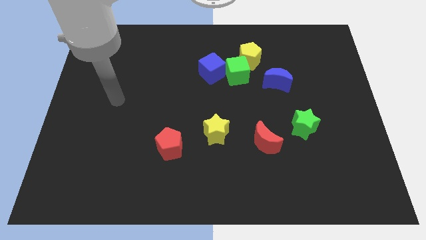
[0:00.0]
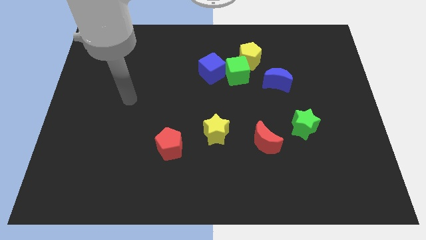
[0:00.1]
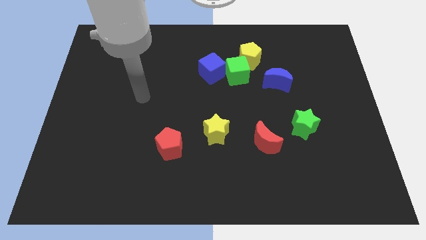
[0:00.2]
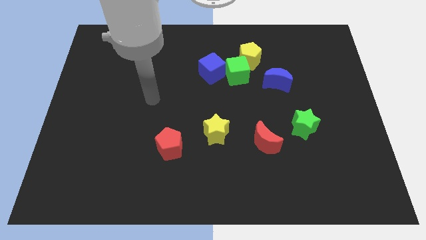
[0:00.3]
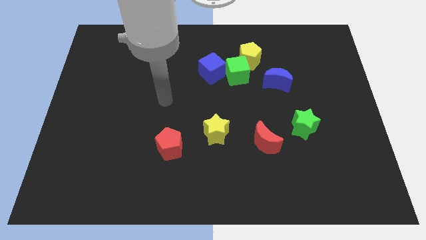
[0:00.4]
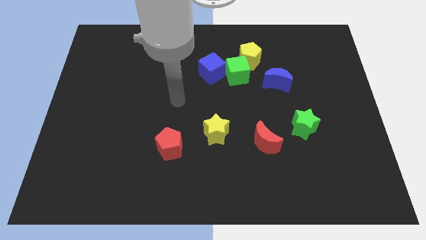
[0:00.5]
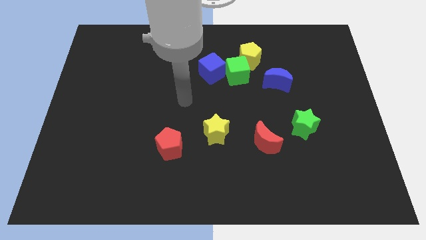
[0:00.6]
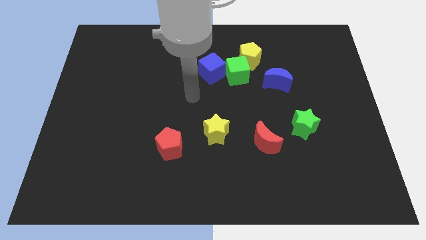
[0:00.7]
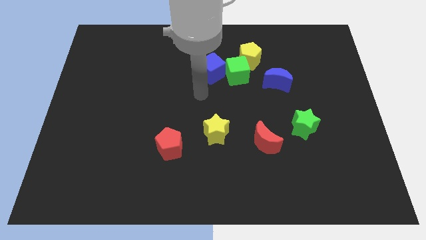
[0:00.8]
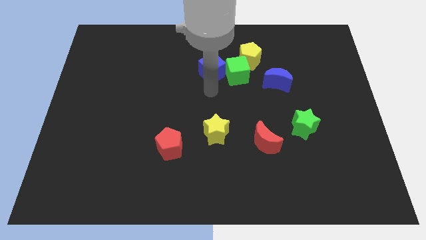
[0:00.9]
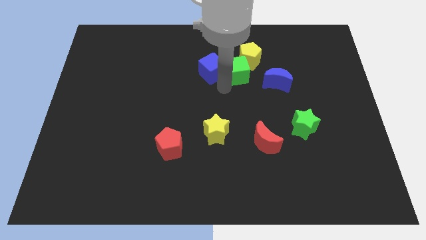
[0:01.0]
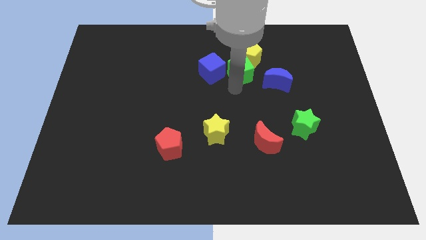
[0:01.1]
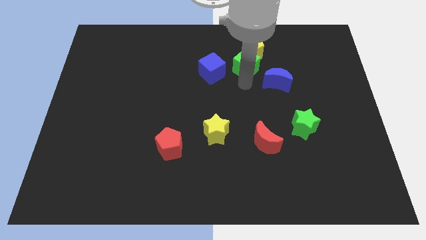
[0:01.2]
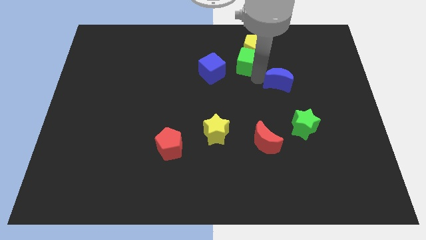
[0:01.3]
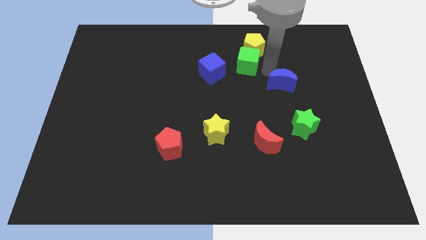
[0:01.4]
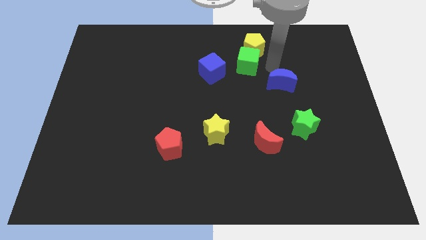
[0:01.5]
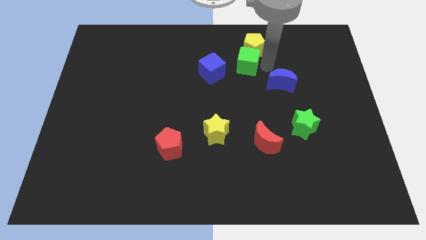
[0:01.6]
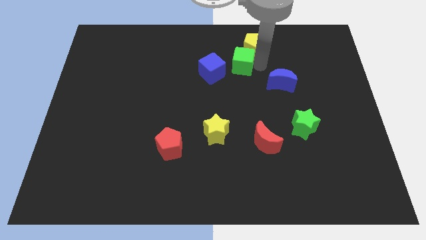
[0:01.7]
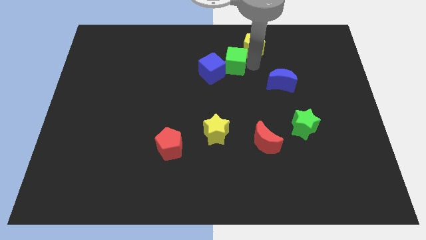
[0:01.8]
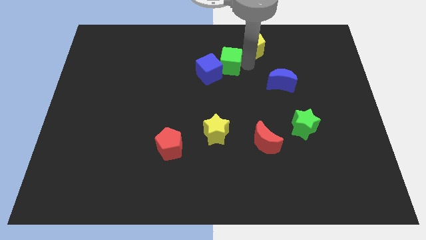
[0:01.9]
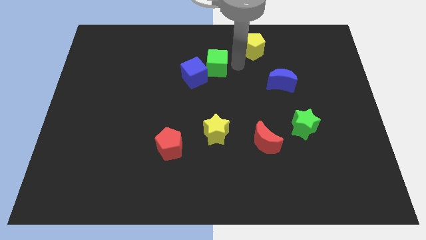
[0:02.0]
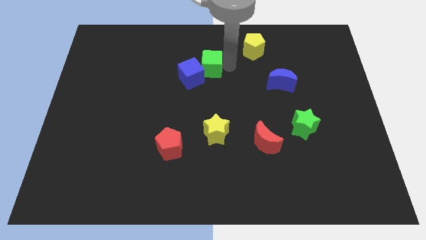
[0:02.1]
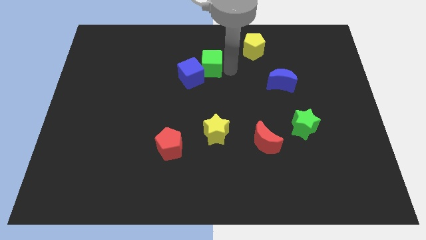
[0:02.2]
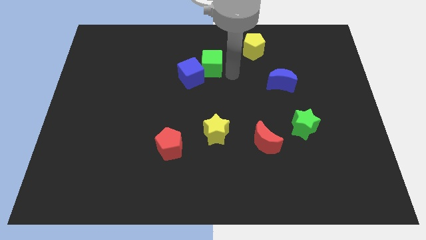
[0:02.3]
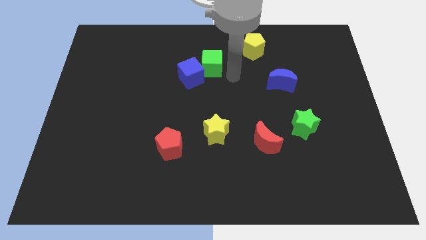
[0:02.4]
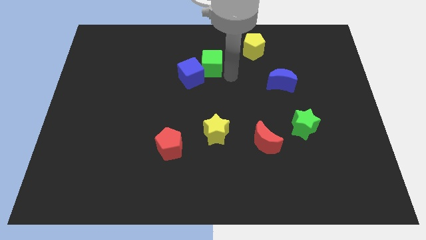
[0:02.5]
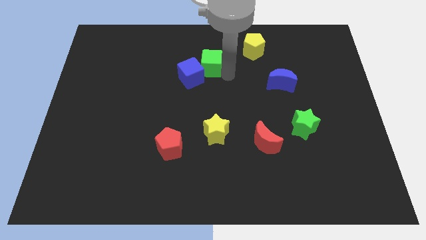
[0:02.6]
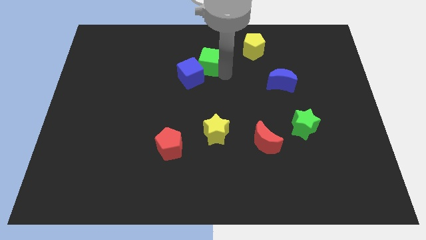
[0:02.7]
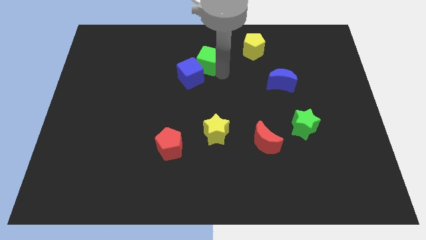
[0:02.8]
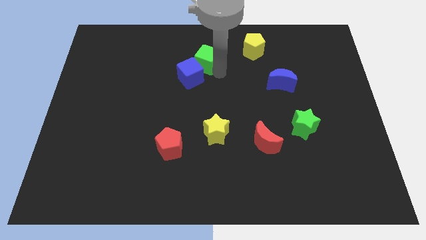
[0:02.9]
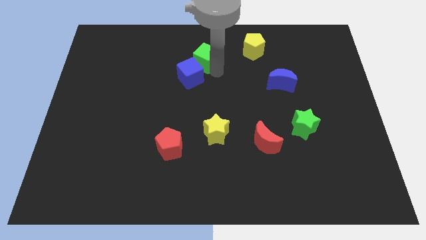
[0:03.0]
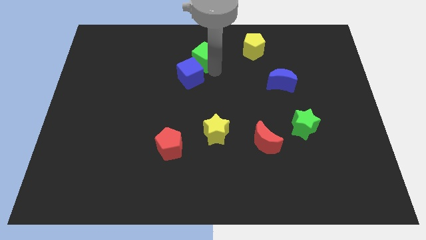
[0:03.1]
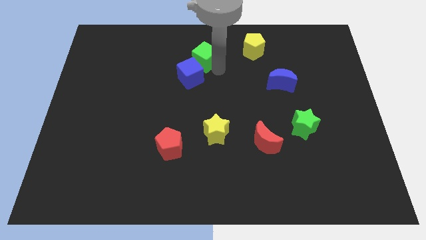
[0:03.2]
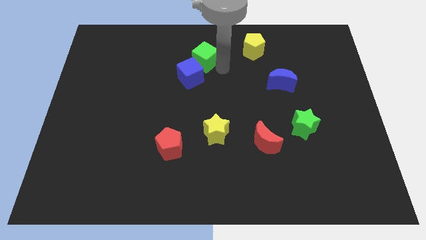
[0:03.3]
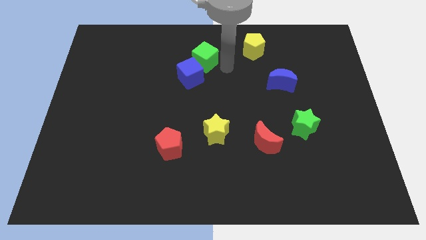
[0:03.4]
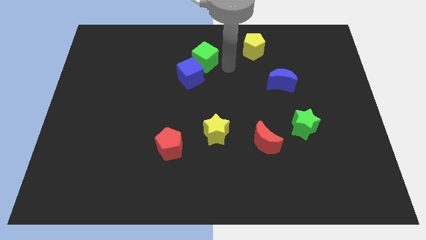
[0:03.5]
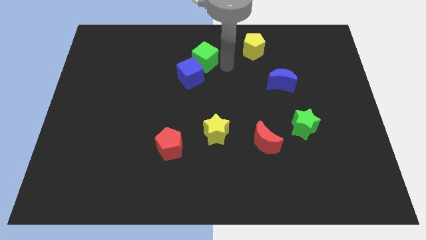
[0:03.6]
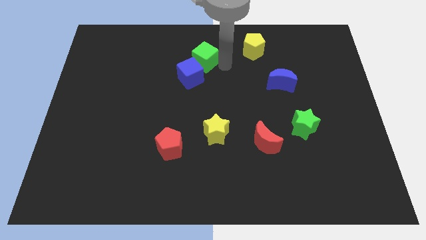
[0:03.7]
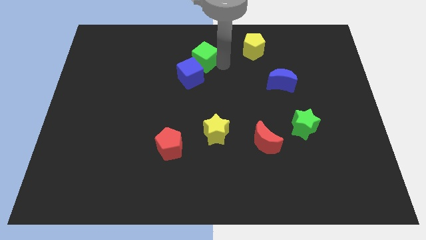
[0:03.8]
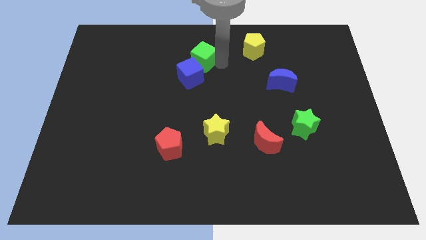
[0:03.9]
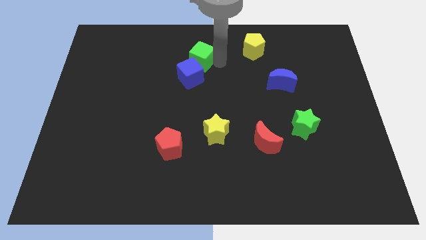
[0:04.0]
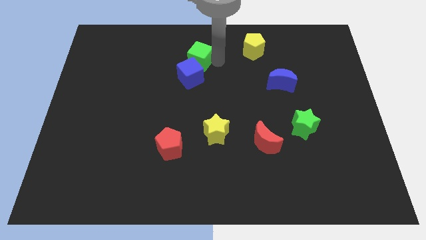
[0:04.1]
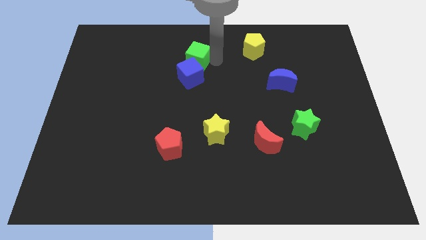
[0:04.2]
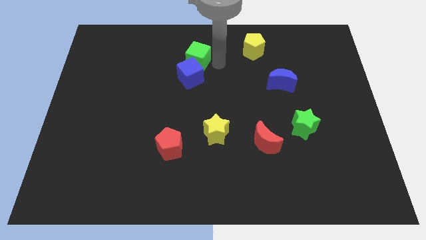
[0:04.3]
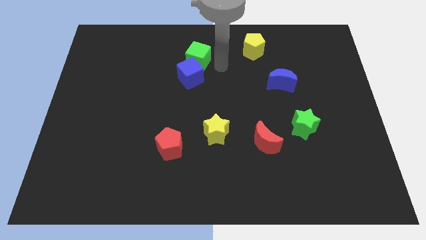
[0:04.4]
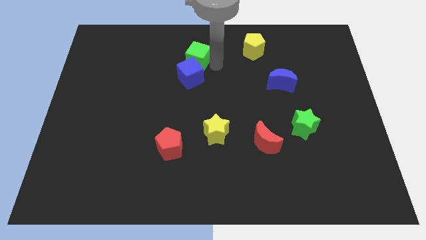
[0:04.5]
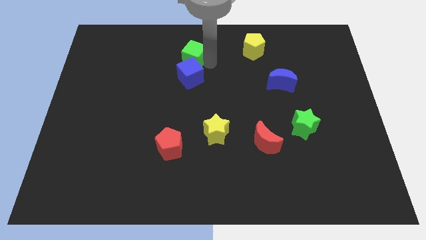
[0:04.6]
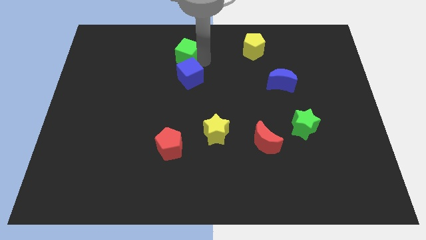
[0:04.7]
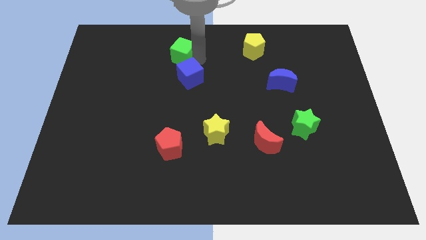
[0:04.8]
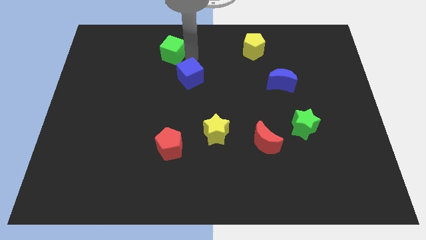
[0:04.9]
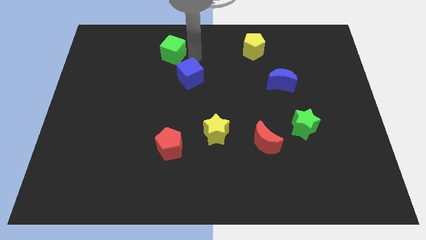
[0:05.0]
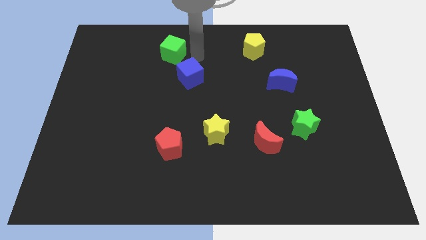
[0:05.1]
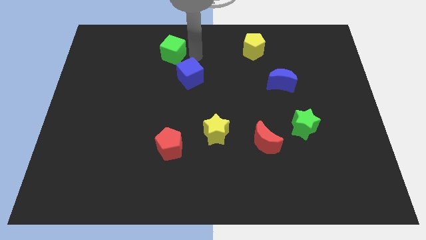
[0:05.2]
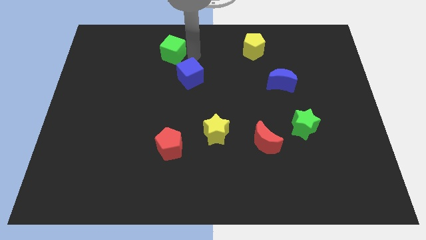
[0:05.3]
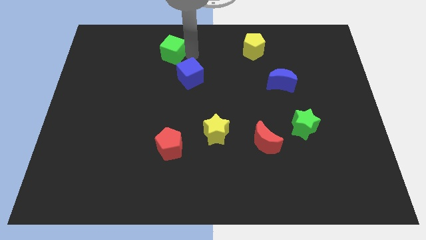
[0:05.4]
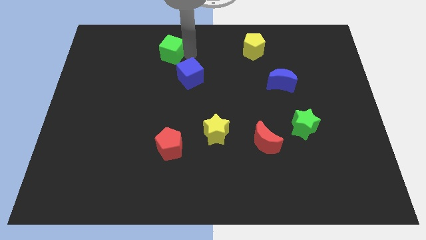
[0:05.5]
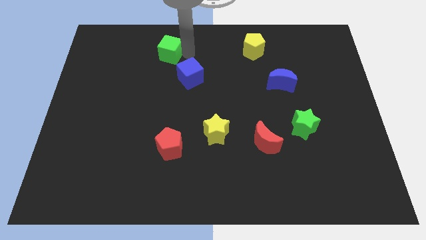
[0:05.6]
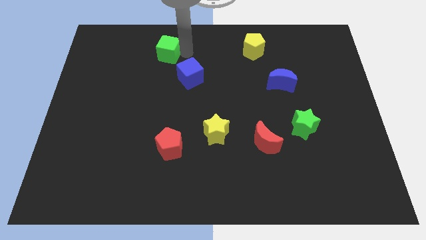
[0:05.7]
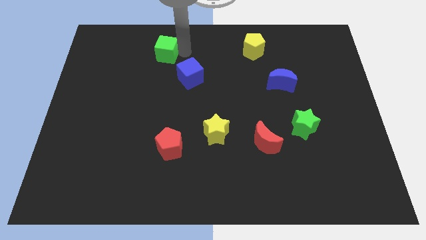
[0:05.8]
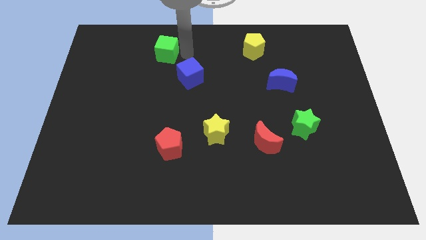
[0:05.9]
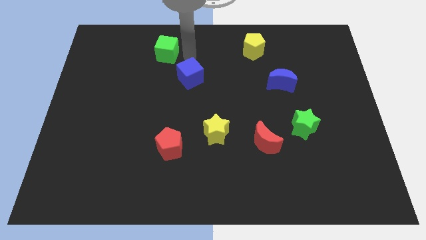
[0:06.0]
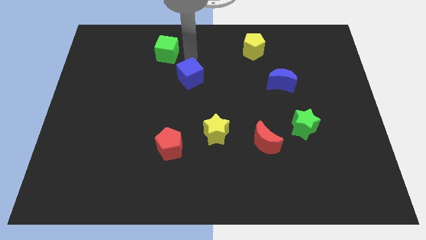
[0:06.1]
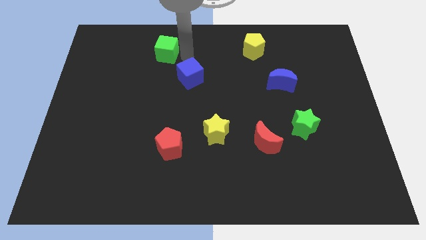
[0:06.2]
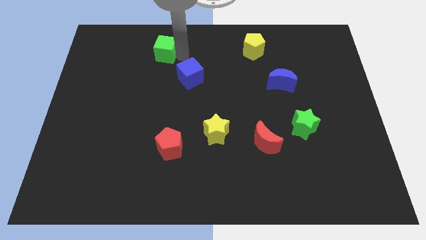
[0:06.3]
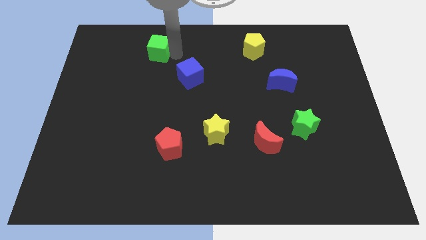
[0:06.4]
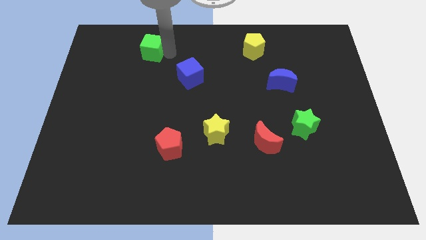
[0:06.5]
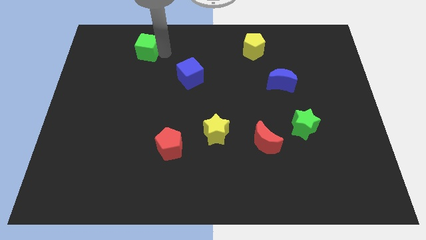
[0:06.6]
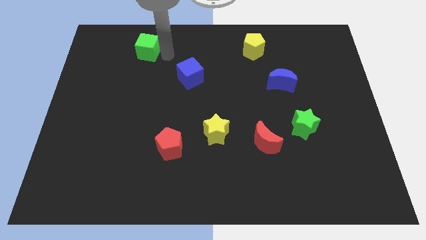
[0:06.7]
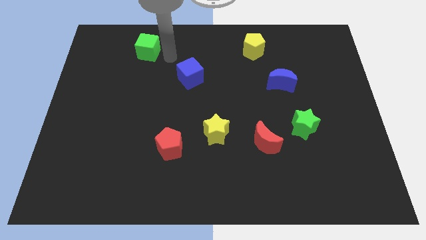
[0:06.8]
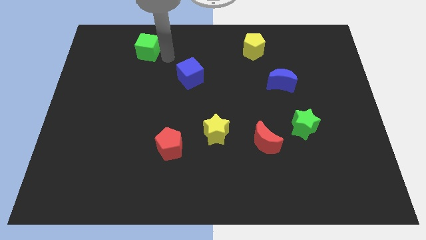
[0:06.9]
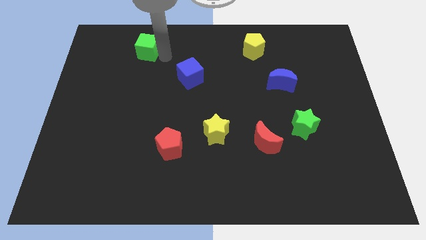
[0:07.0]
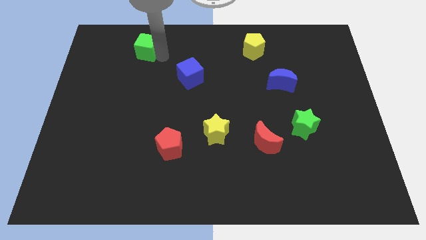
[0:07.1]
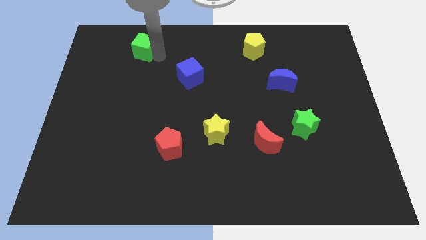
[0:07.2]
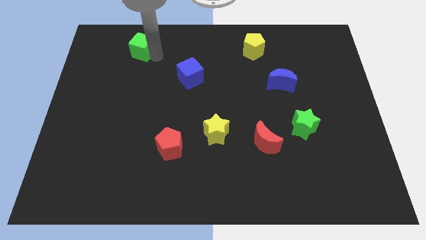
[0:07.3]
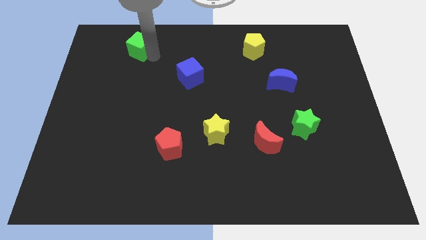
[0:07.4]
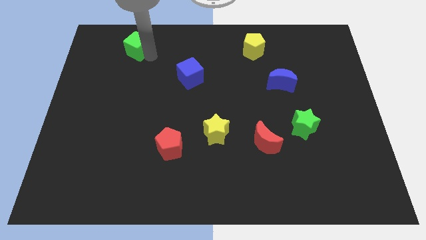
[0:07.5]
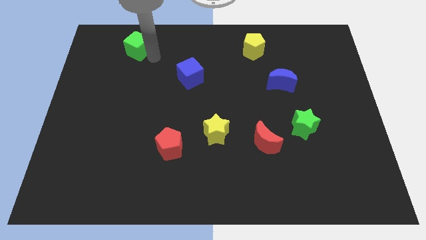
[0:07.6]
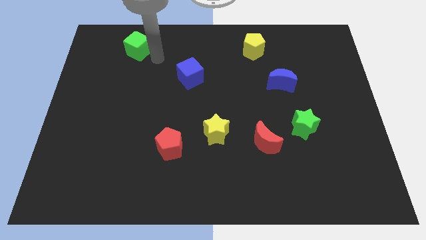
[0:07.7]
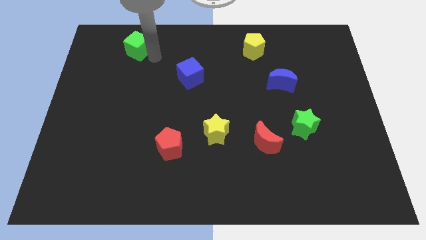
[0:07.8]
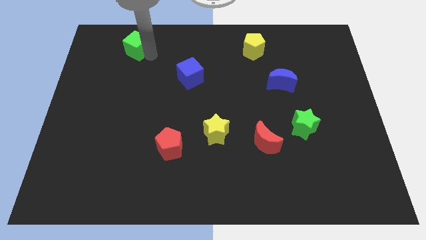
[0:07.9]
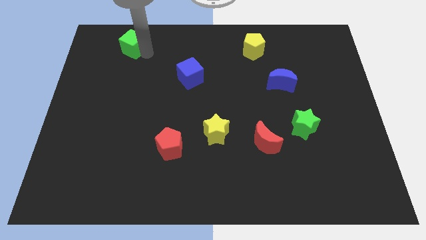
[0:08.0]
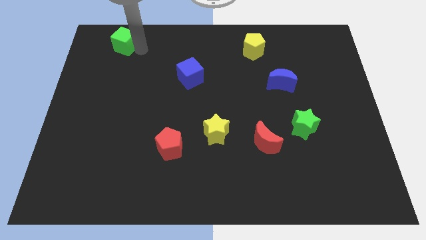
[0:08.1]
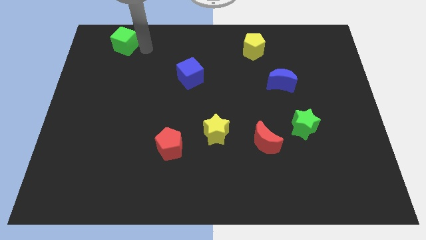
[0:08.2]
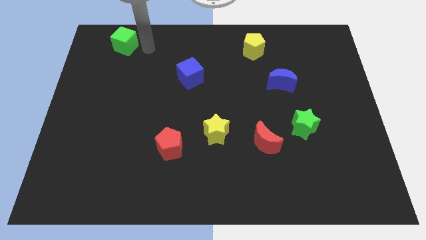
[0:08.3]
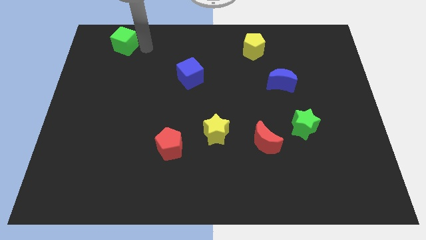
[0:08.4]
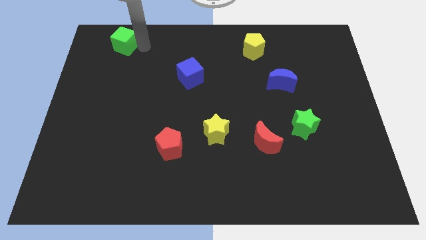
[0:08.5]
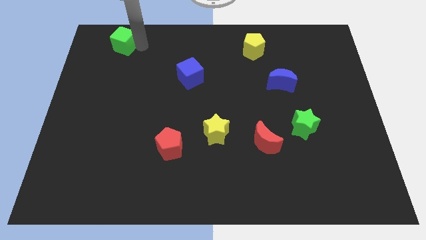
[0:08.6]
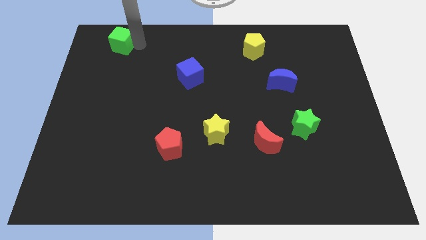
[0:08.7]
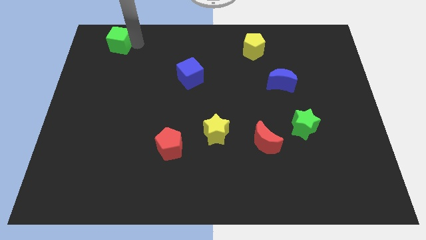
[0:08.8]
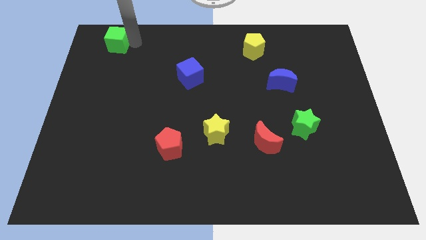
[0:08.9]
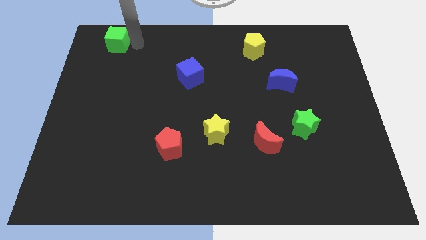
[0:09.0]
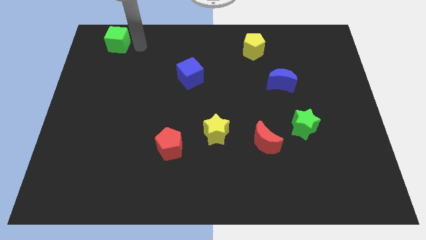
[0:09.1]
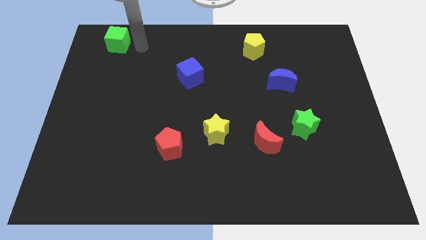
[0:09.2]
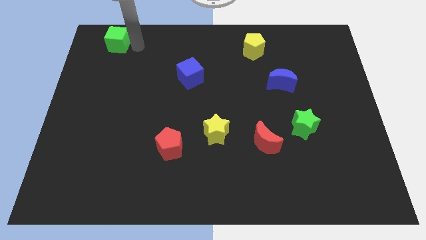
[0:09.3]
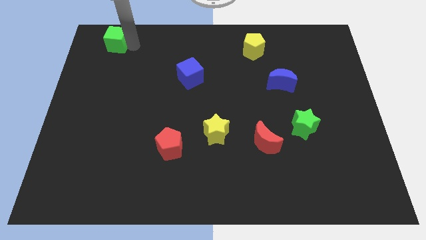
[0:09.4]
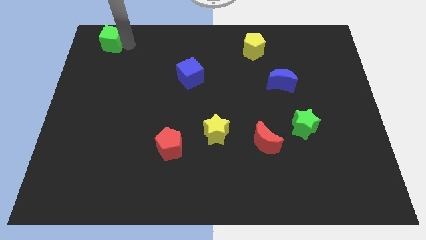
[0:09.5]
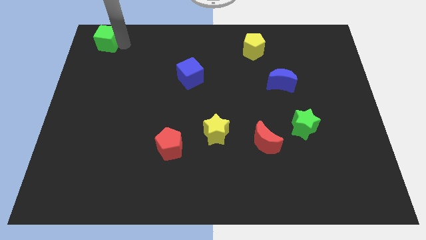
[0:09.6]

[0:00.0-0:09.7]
push the green cube to the top left
